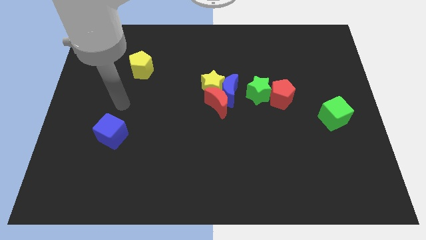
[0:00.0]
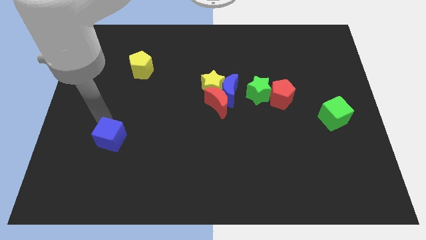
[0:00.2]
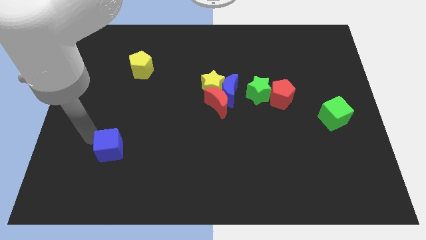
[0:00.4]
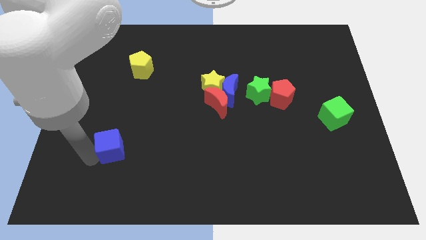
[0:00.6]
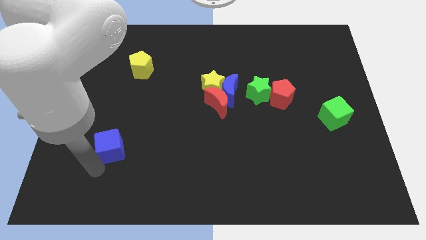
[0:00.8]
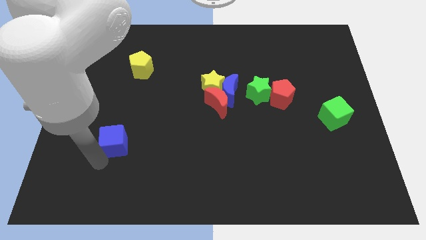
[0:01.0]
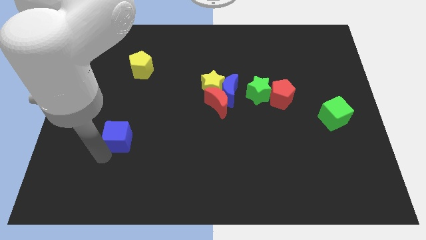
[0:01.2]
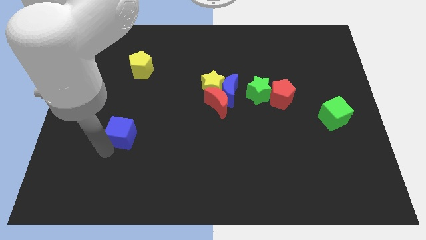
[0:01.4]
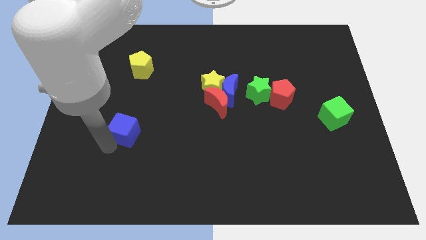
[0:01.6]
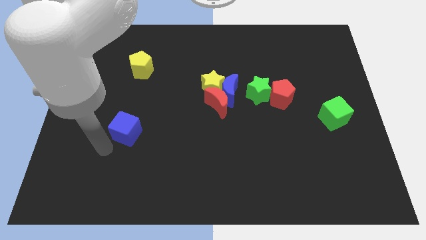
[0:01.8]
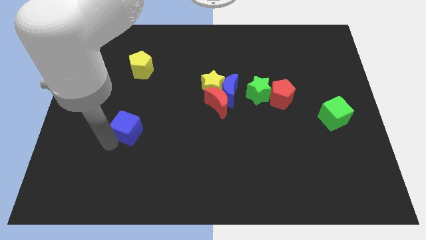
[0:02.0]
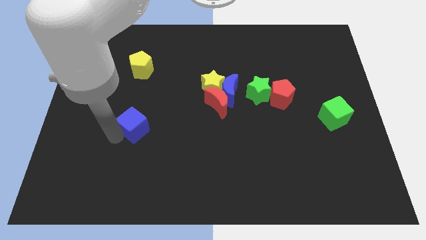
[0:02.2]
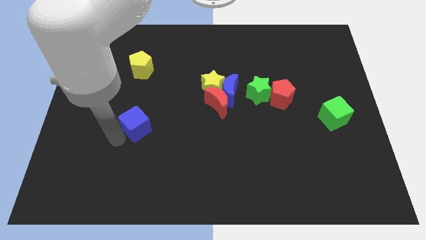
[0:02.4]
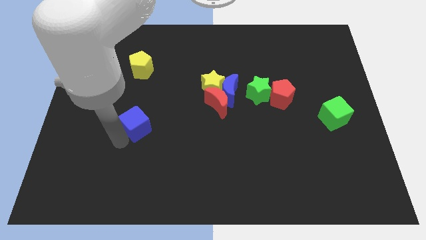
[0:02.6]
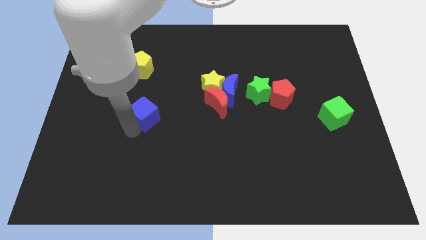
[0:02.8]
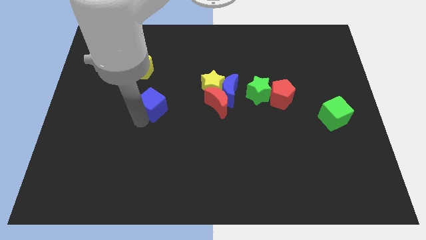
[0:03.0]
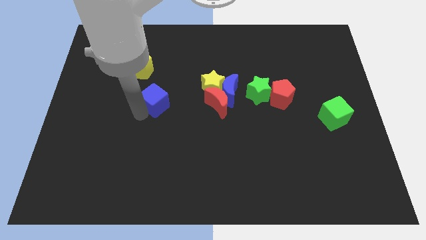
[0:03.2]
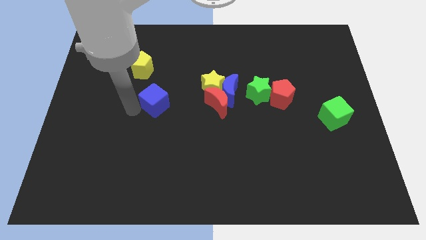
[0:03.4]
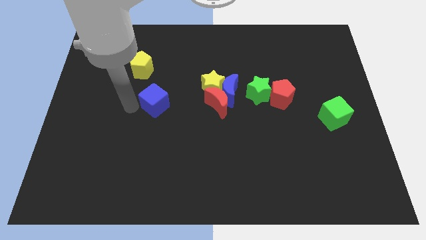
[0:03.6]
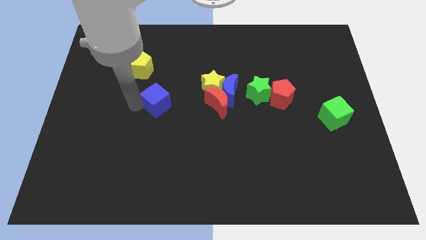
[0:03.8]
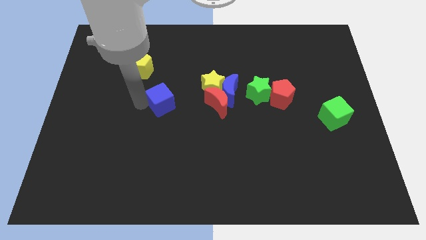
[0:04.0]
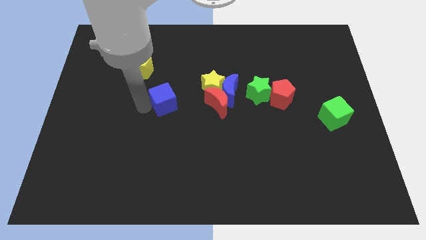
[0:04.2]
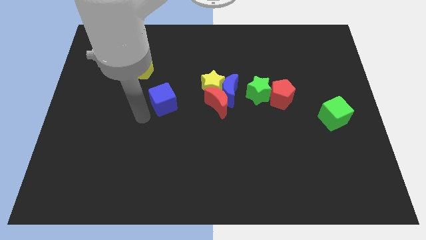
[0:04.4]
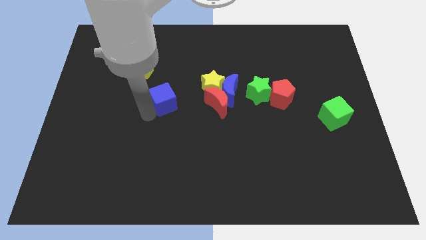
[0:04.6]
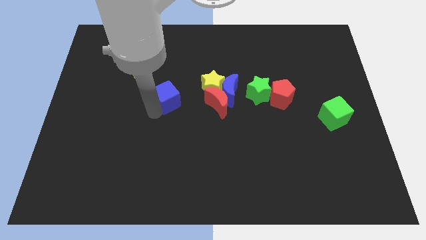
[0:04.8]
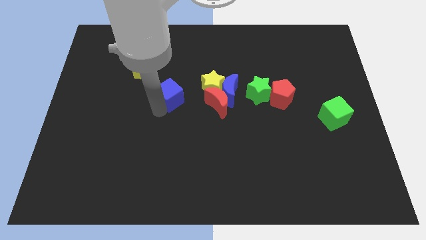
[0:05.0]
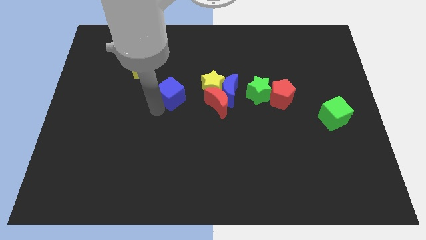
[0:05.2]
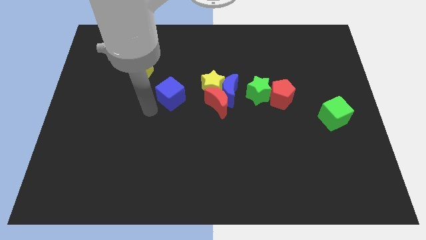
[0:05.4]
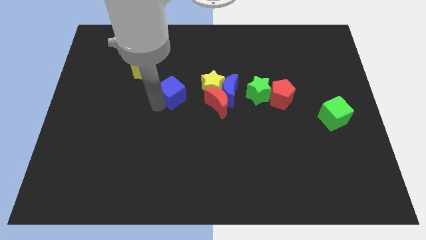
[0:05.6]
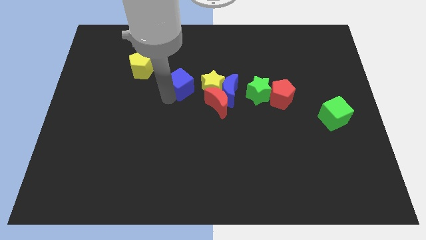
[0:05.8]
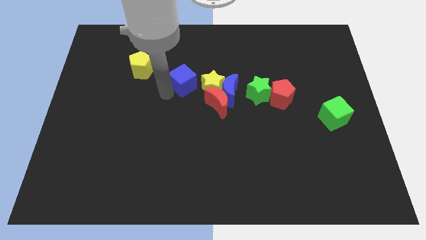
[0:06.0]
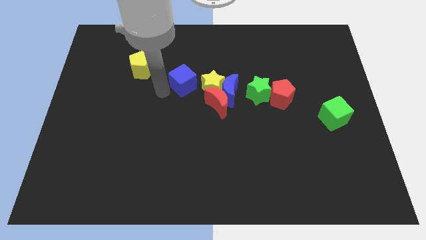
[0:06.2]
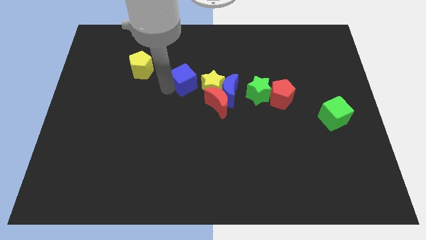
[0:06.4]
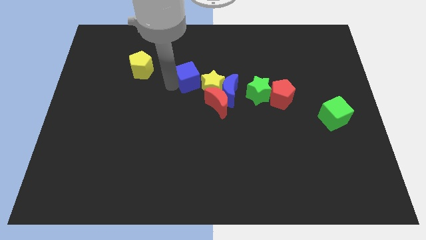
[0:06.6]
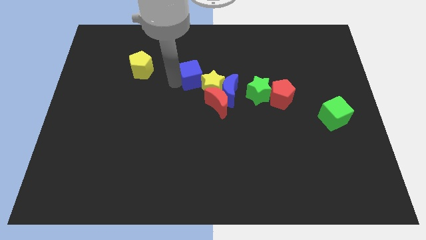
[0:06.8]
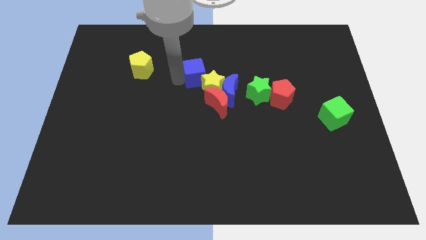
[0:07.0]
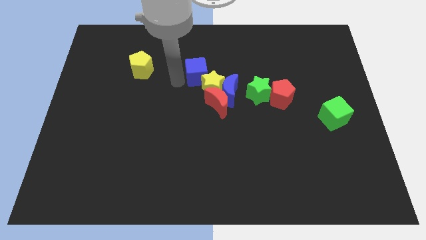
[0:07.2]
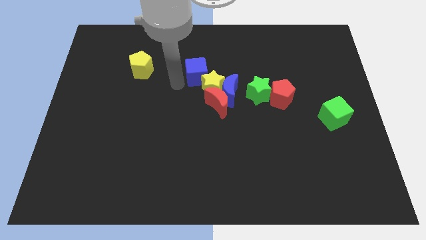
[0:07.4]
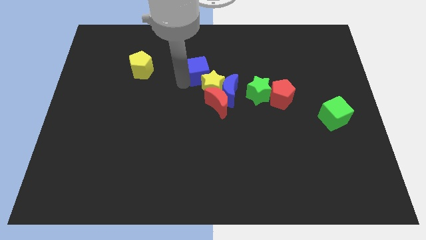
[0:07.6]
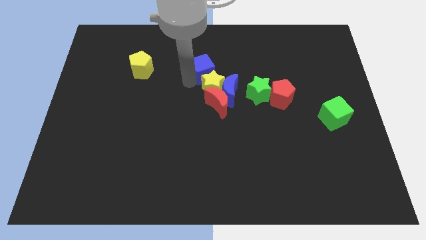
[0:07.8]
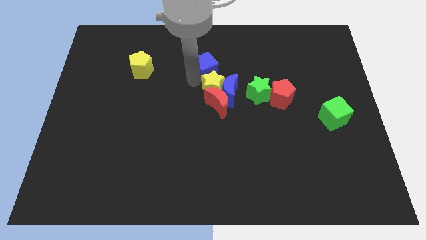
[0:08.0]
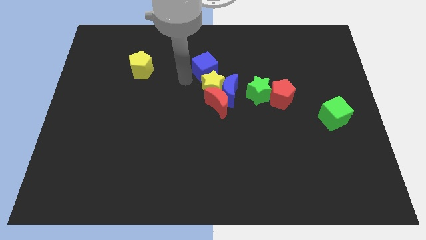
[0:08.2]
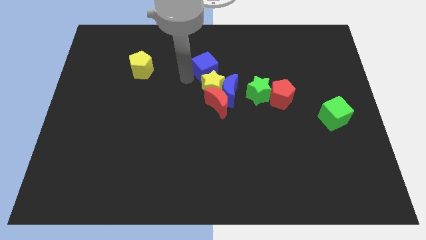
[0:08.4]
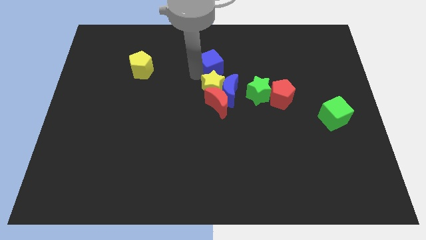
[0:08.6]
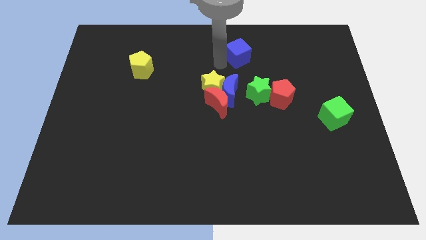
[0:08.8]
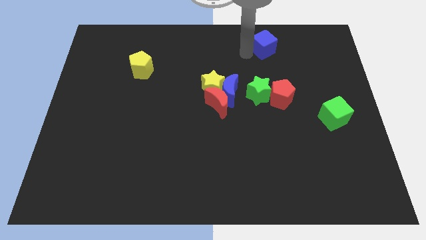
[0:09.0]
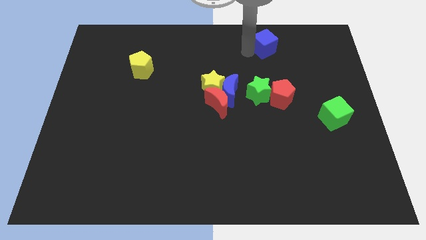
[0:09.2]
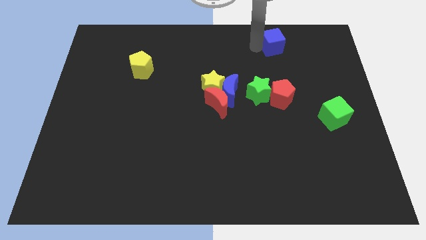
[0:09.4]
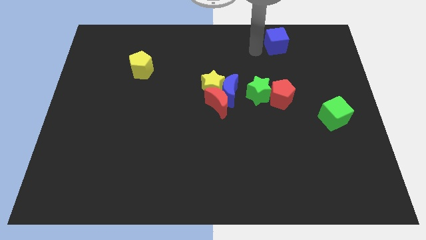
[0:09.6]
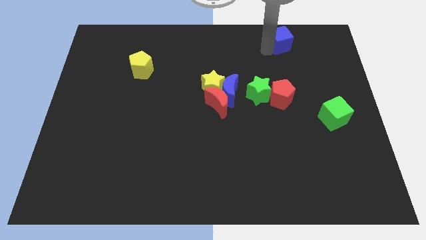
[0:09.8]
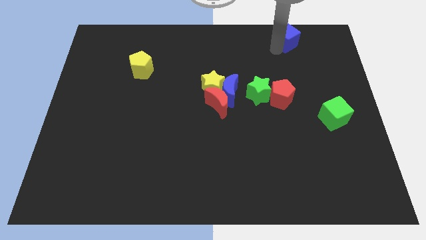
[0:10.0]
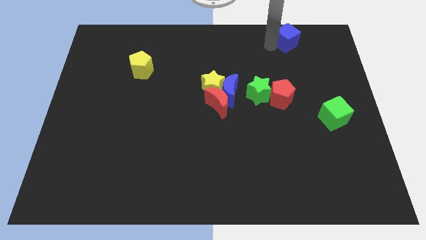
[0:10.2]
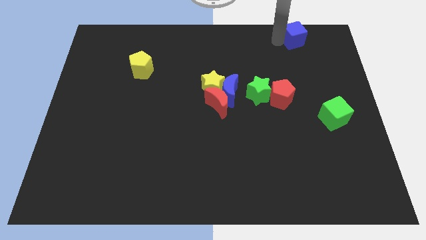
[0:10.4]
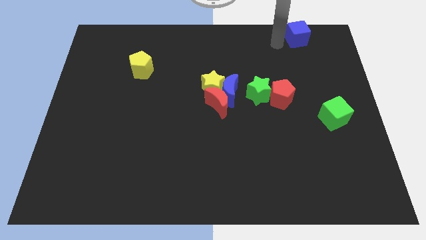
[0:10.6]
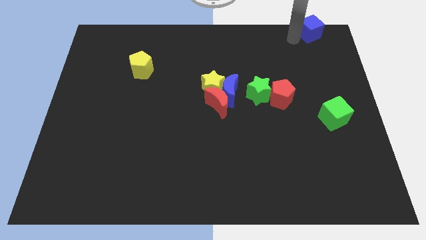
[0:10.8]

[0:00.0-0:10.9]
put the blue cube to the top right of the board

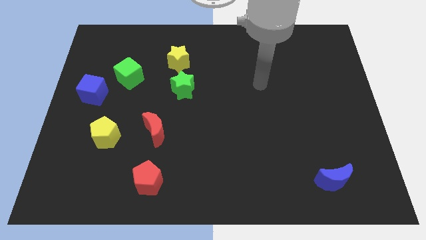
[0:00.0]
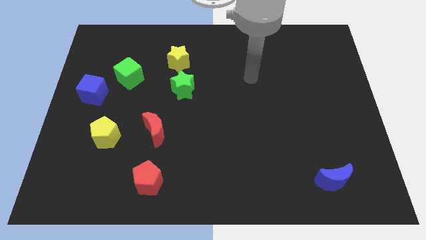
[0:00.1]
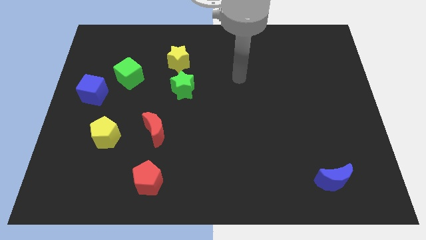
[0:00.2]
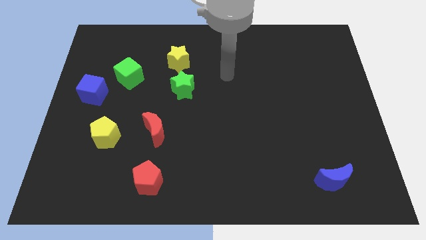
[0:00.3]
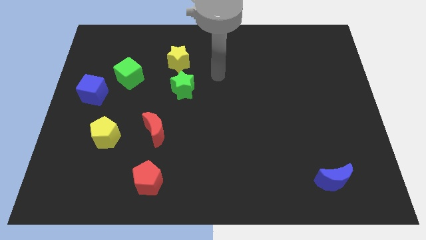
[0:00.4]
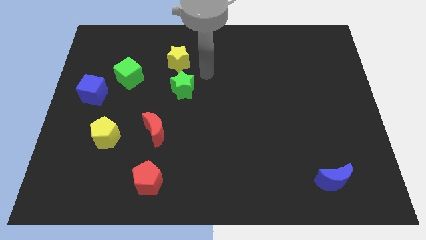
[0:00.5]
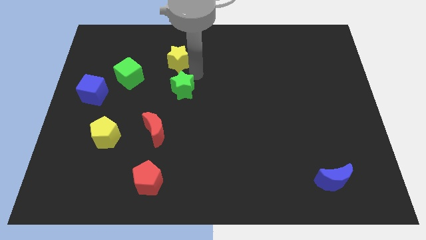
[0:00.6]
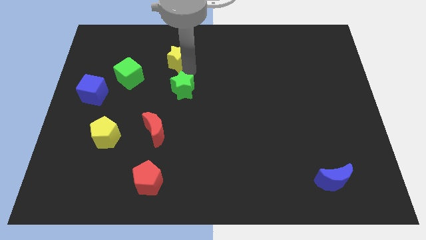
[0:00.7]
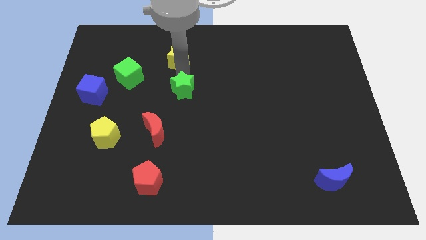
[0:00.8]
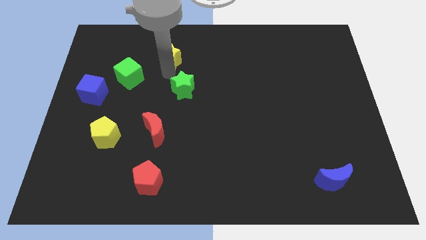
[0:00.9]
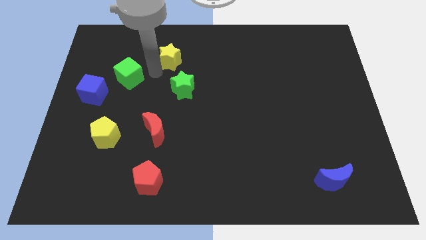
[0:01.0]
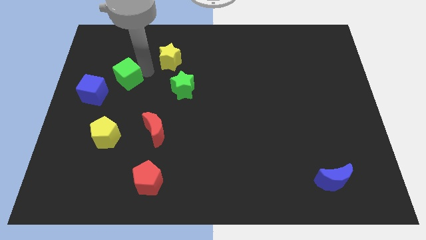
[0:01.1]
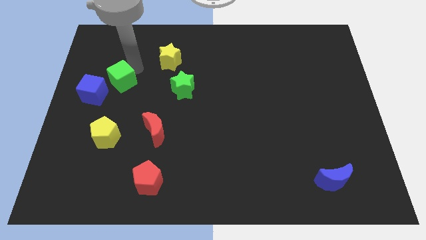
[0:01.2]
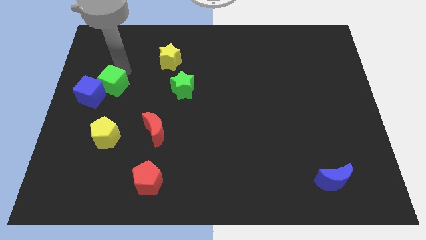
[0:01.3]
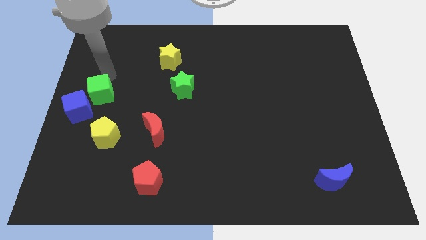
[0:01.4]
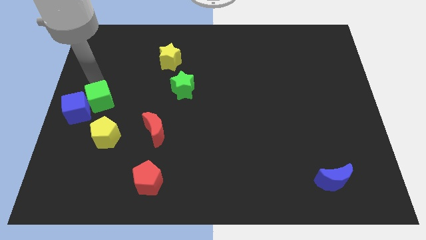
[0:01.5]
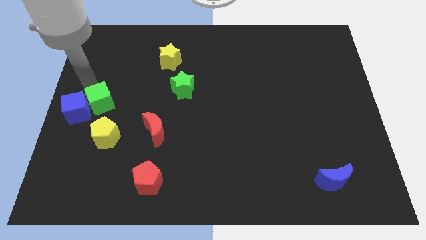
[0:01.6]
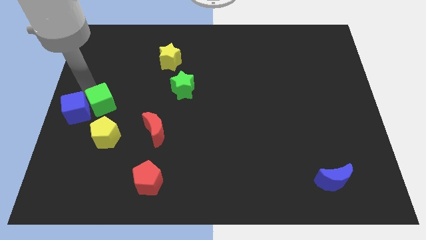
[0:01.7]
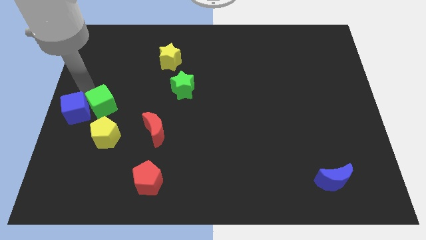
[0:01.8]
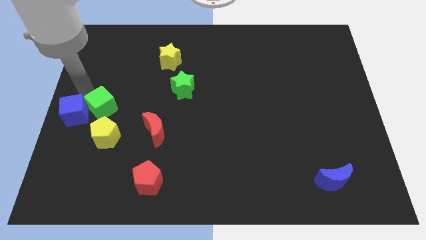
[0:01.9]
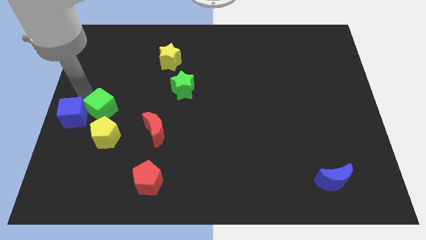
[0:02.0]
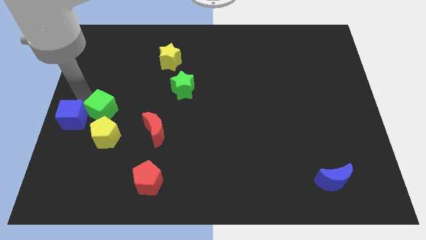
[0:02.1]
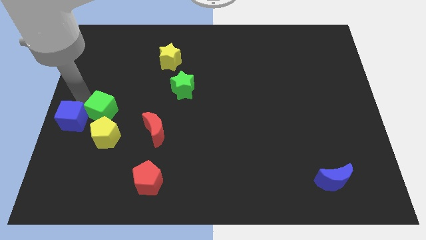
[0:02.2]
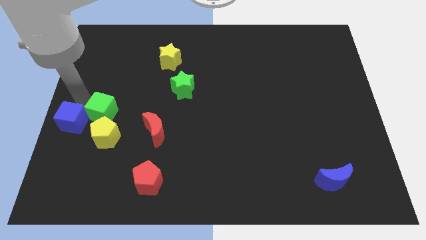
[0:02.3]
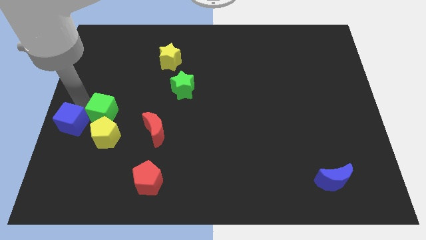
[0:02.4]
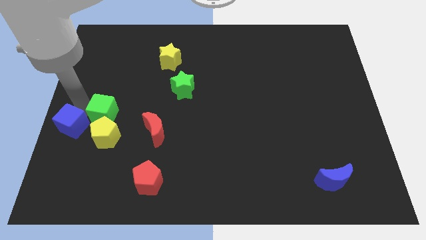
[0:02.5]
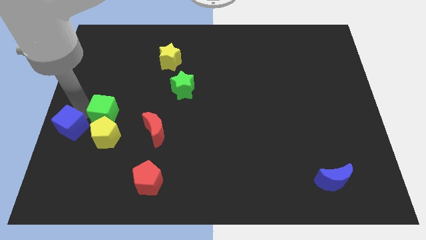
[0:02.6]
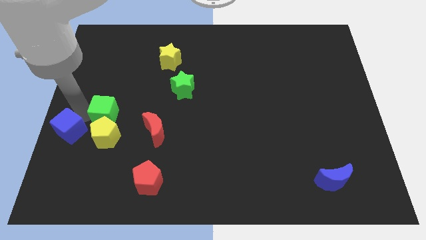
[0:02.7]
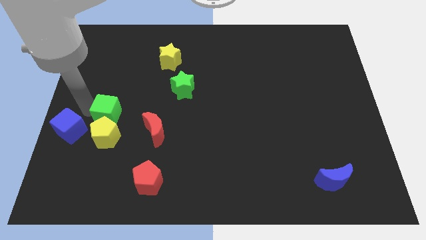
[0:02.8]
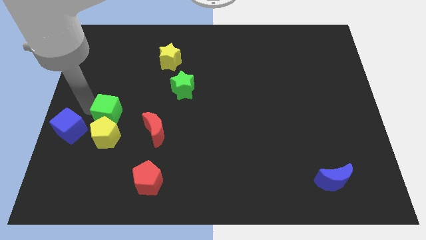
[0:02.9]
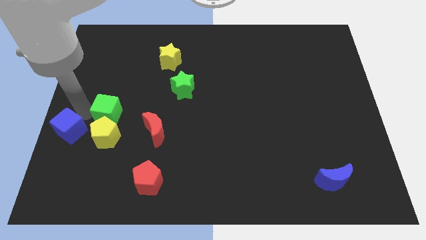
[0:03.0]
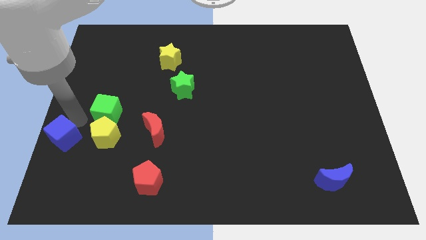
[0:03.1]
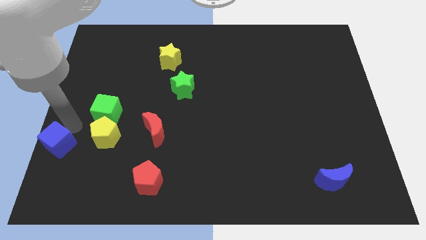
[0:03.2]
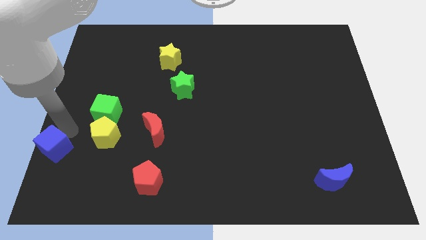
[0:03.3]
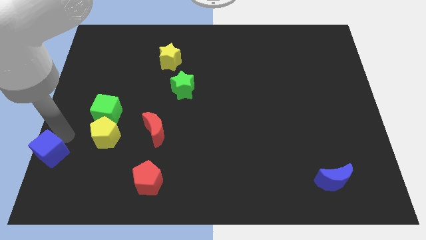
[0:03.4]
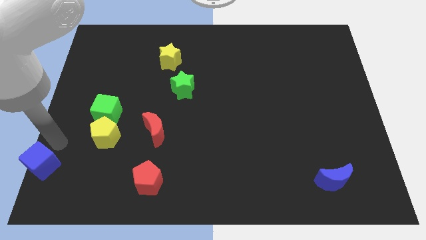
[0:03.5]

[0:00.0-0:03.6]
move the blue cube to the bottom left
